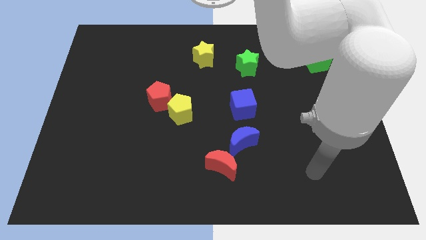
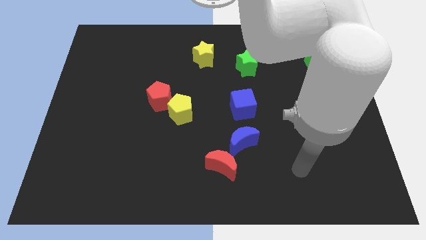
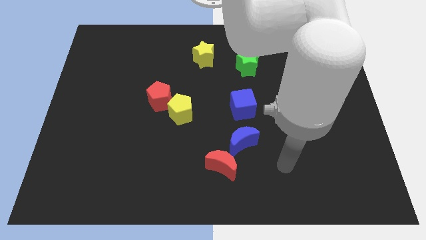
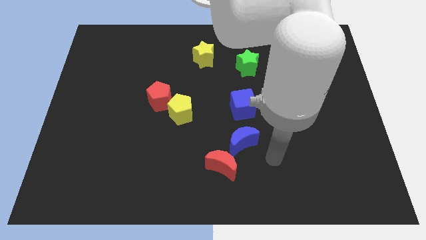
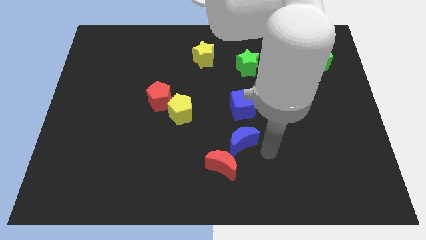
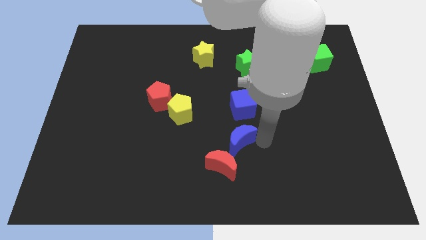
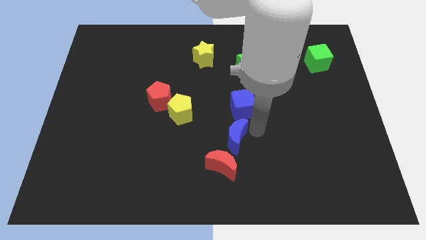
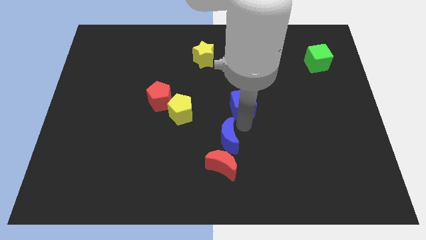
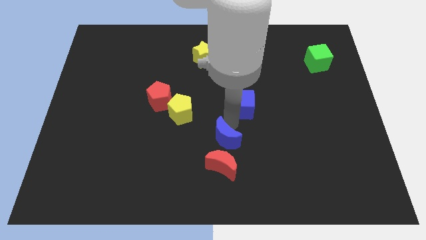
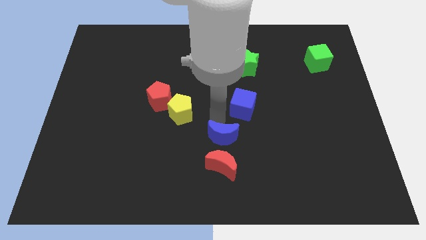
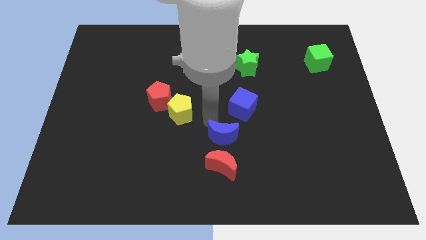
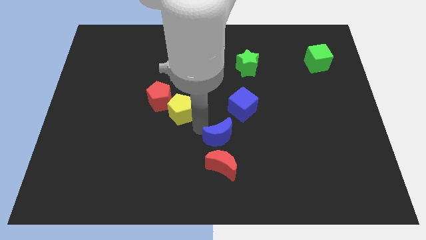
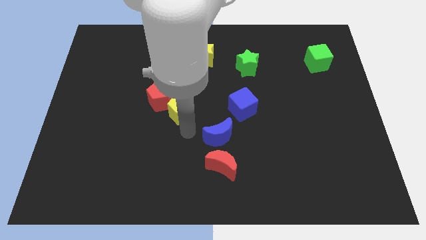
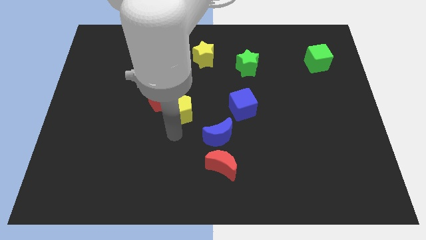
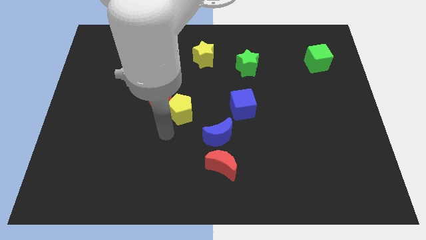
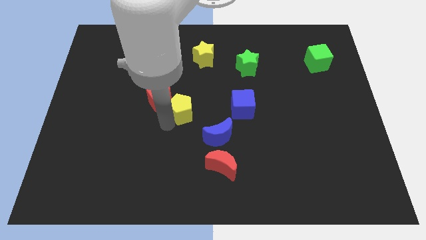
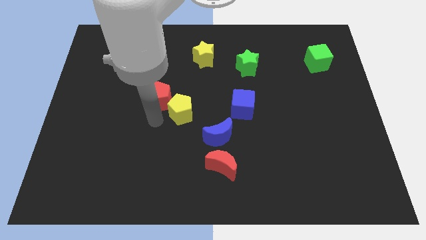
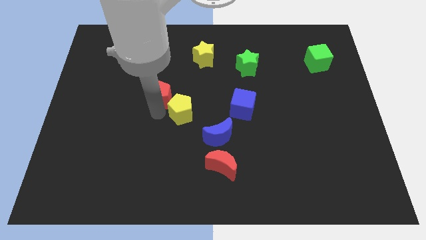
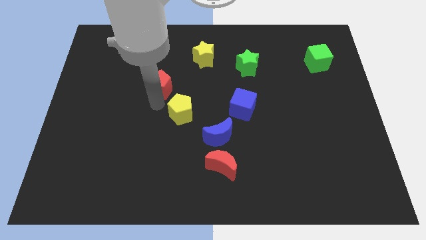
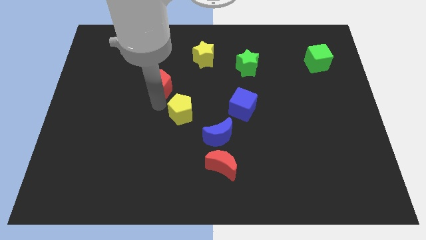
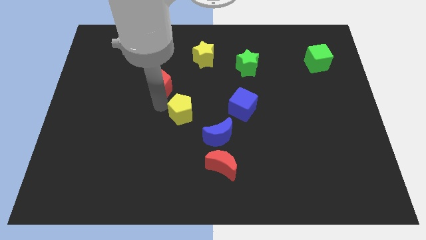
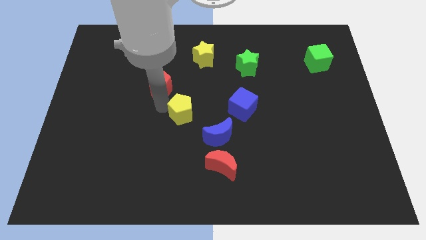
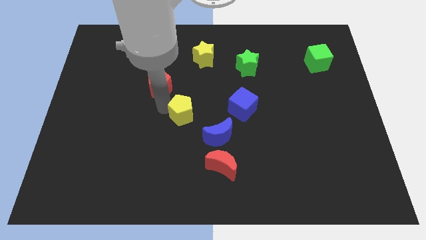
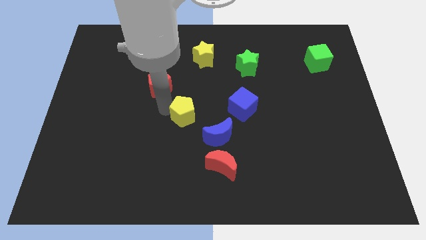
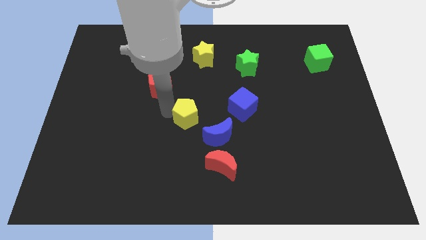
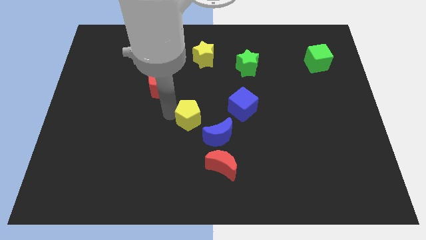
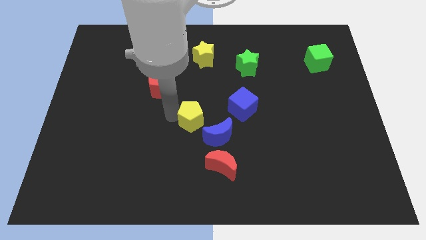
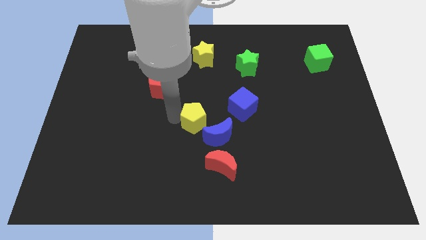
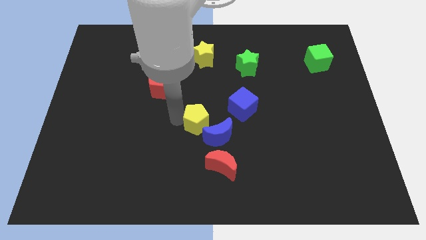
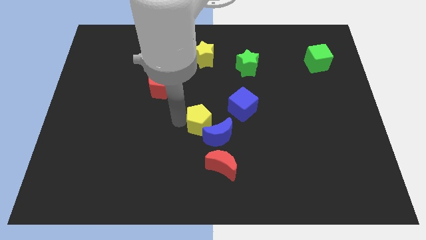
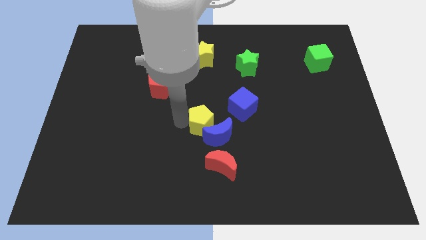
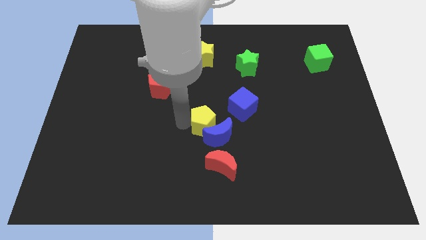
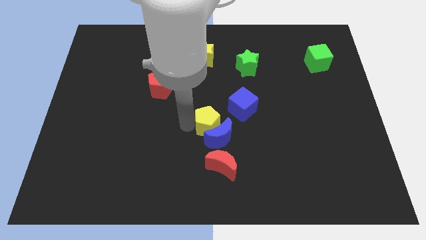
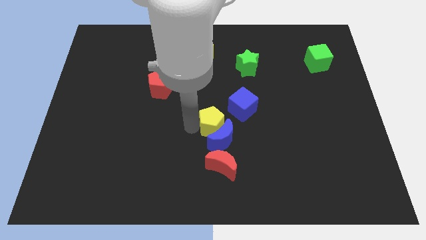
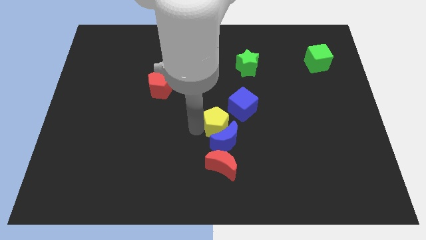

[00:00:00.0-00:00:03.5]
push the yellow pentagon a bit right

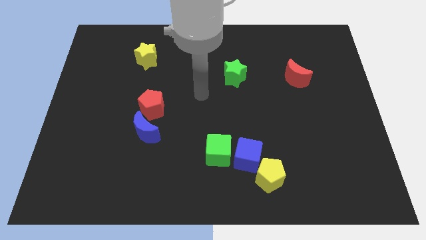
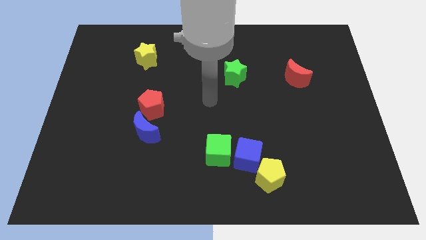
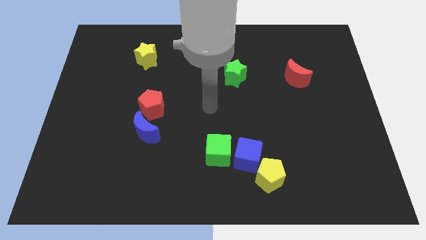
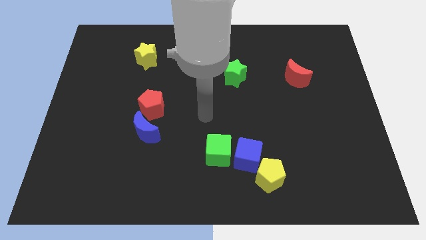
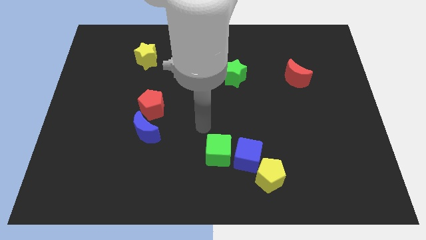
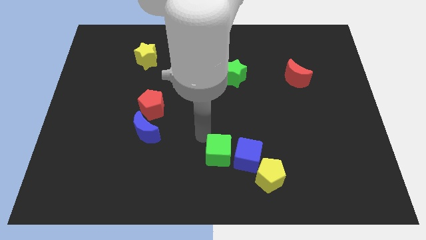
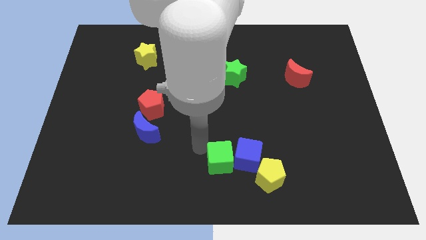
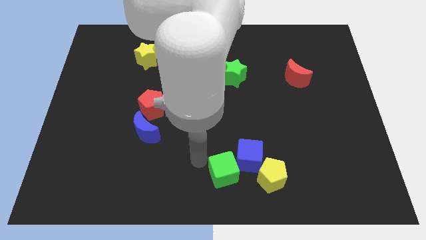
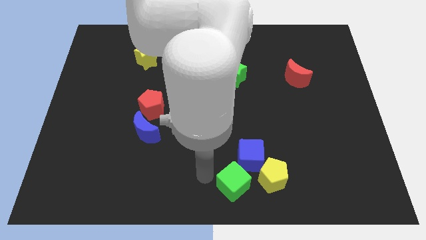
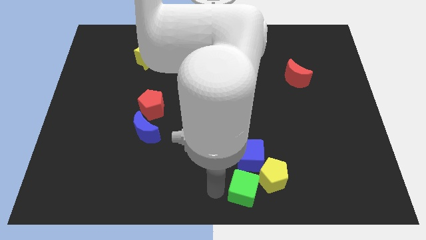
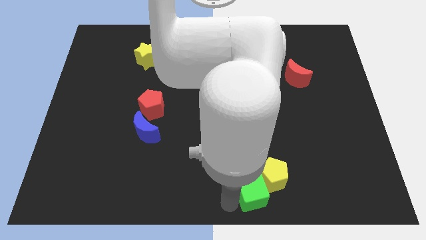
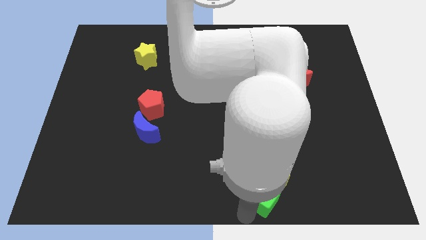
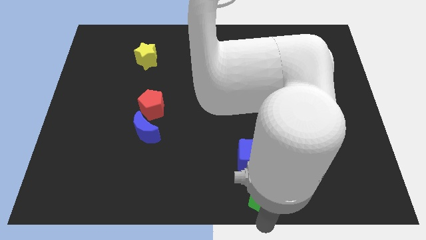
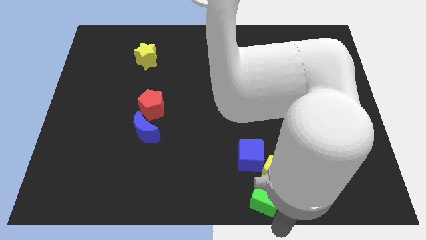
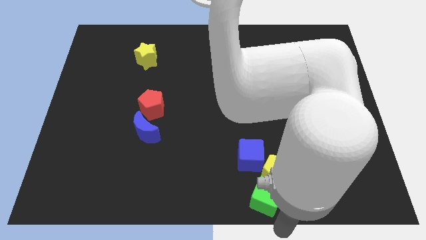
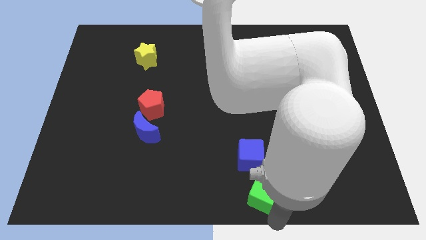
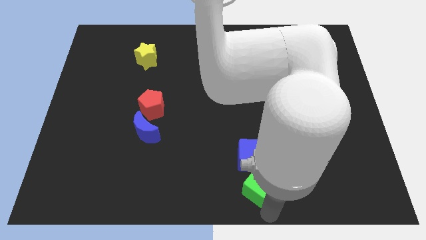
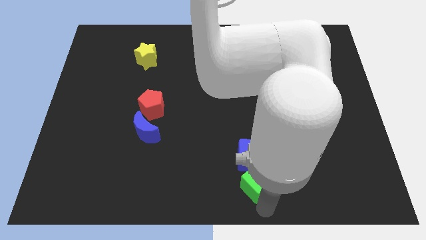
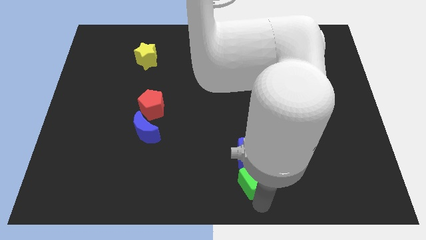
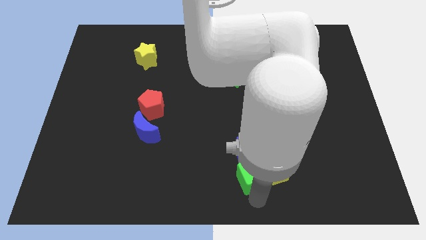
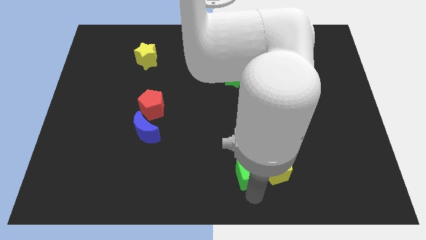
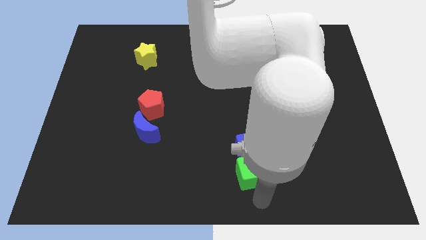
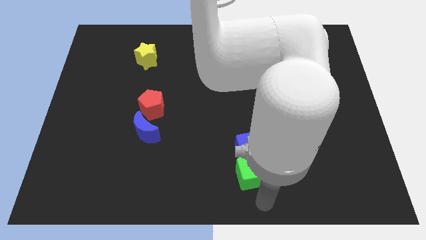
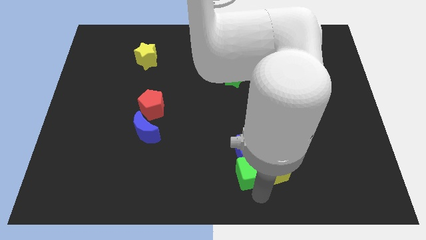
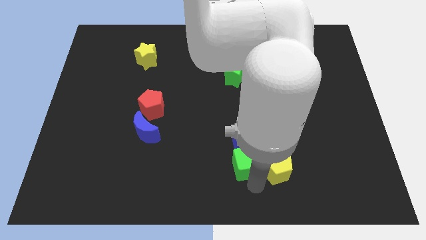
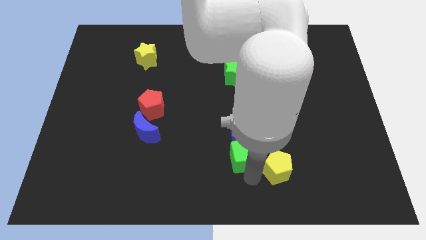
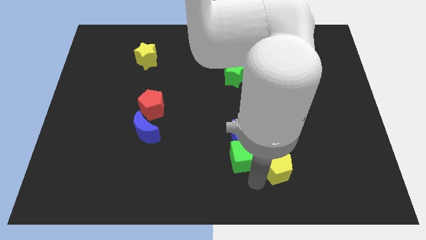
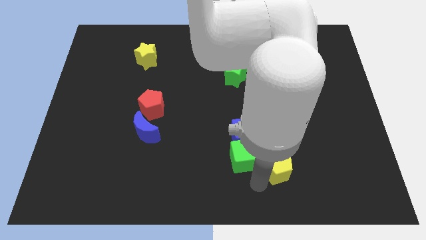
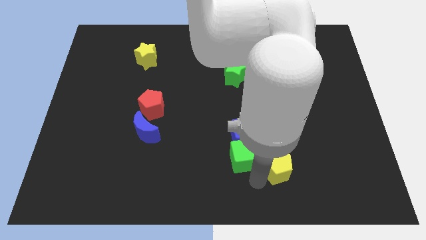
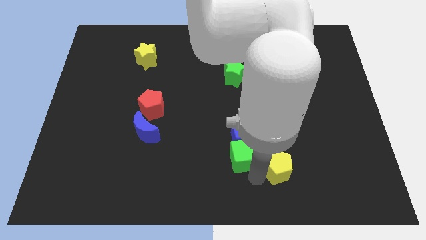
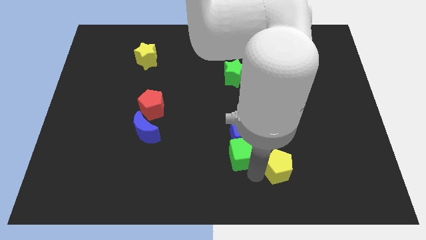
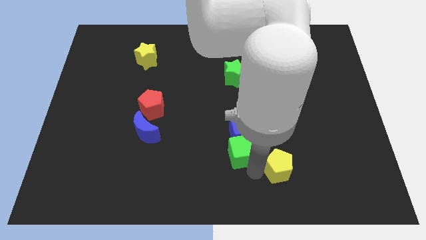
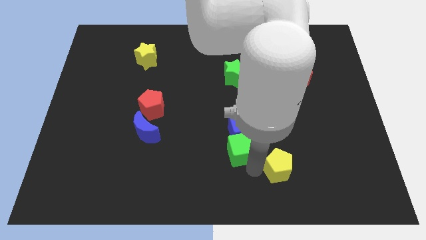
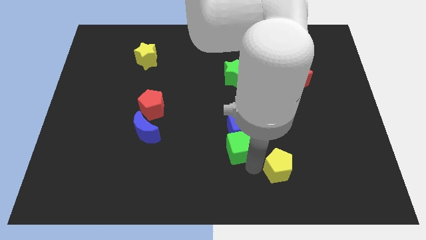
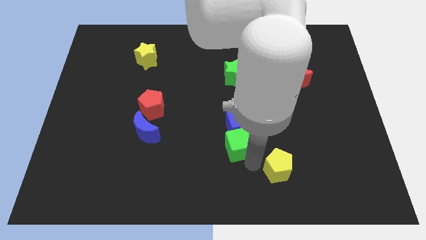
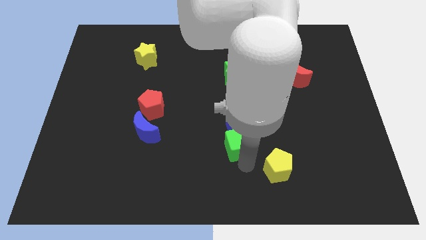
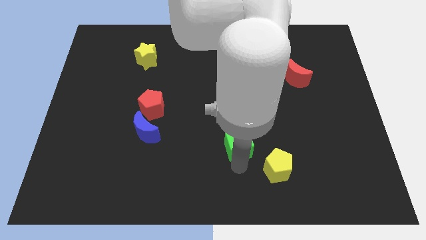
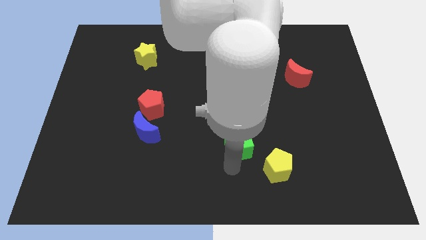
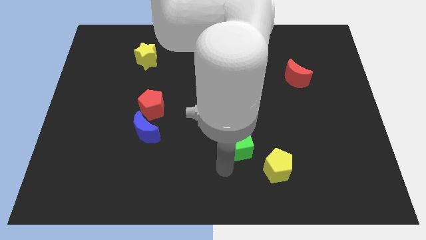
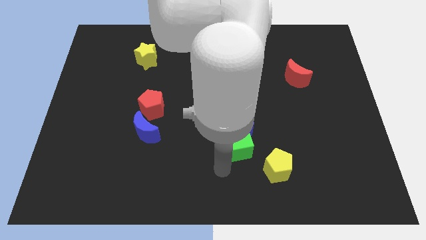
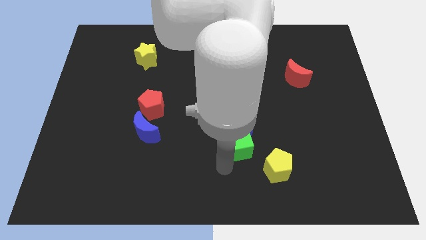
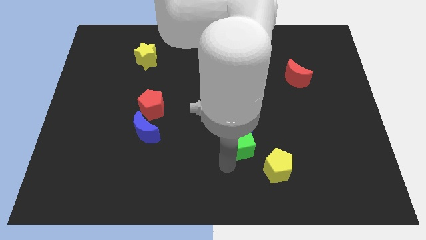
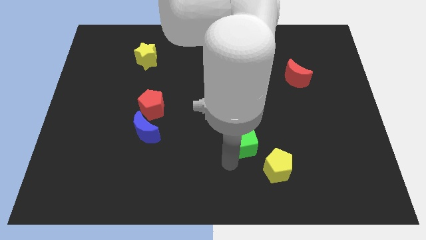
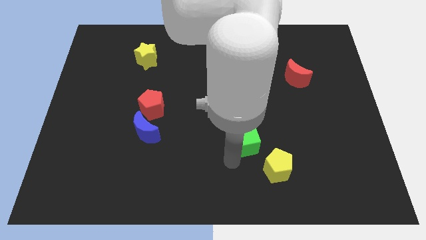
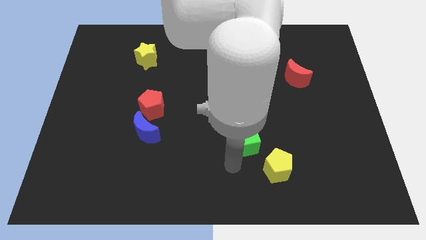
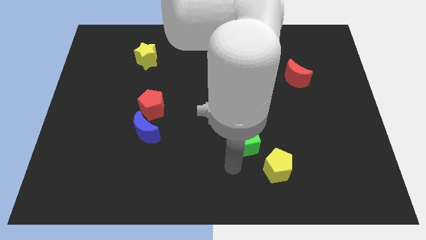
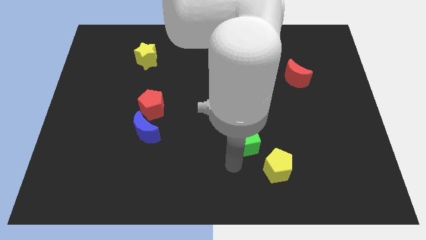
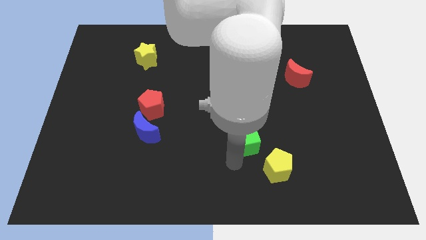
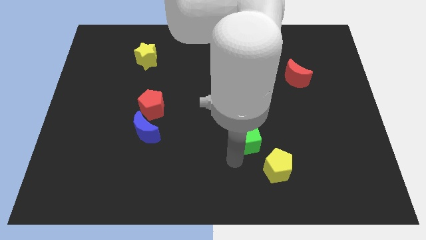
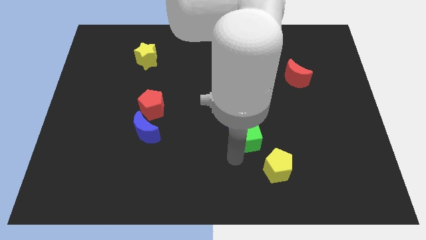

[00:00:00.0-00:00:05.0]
move the green cube a little bit up and to the right diagonally
